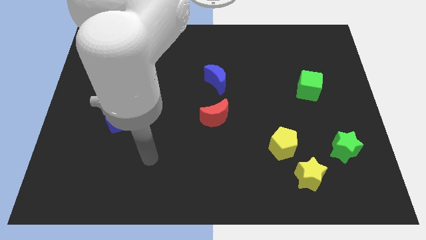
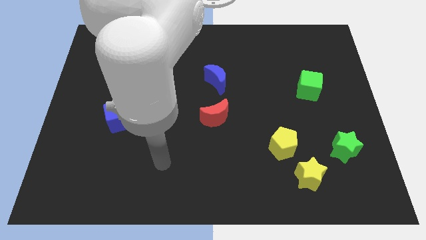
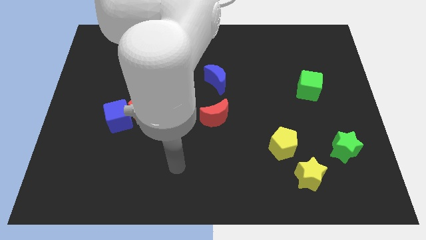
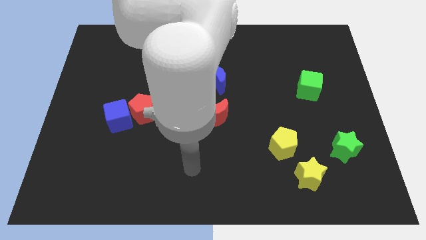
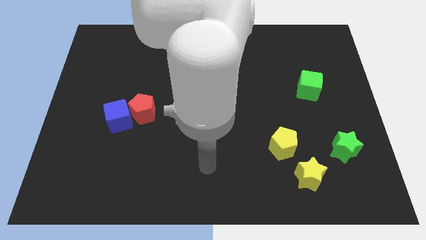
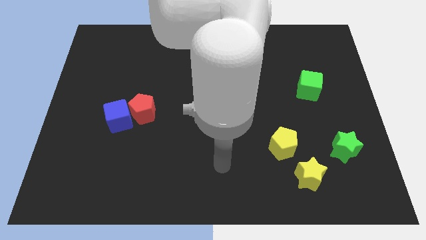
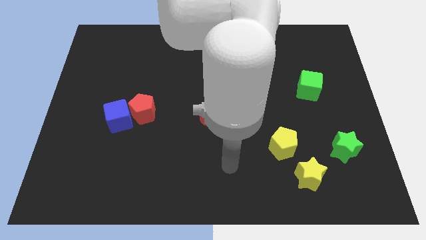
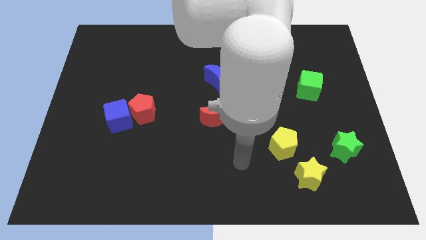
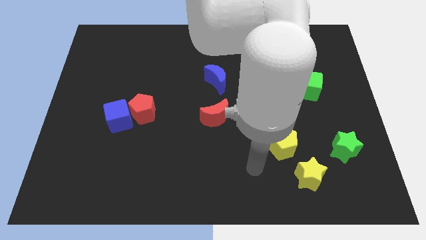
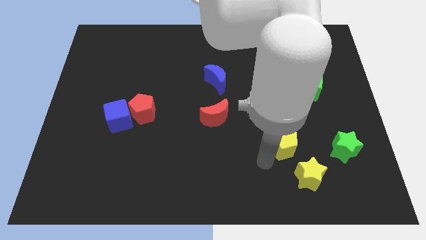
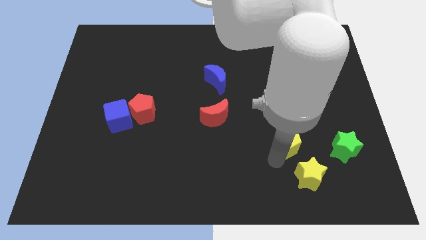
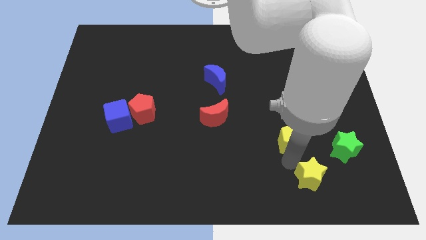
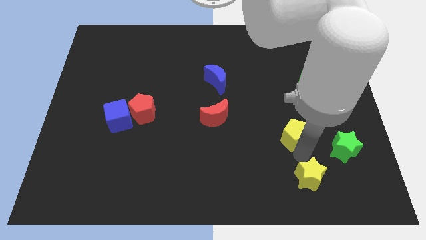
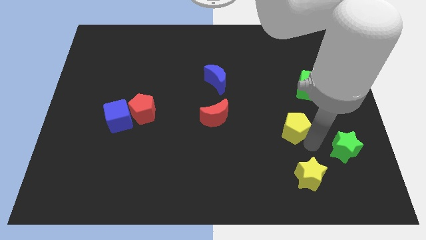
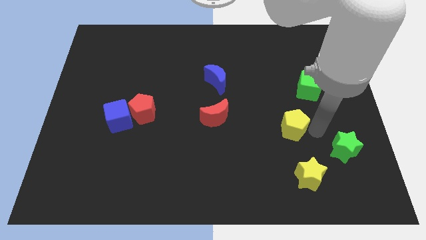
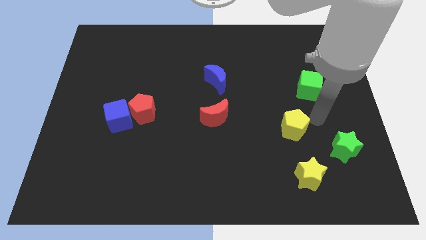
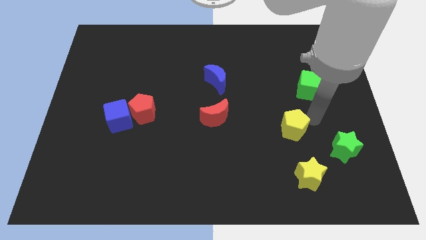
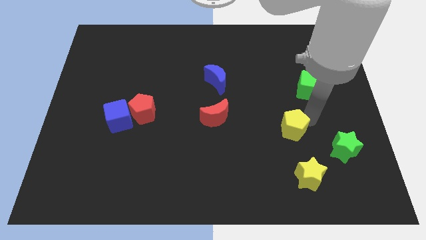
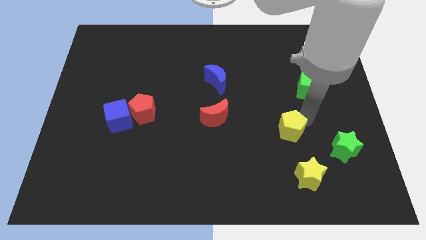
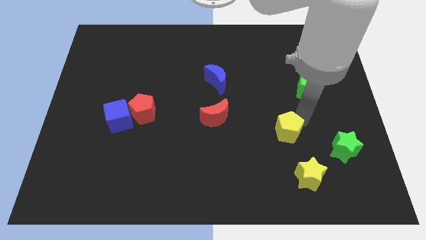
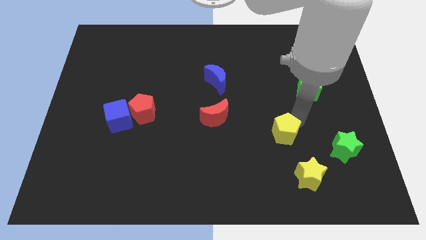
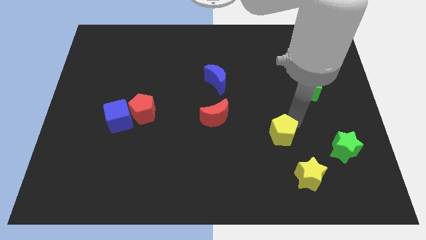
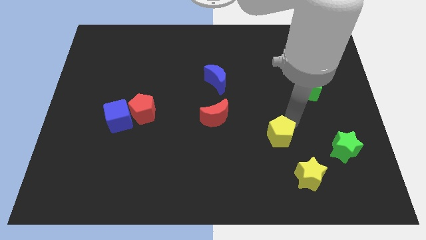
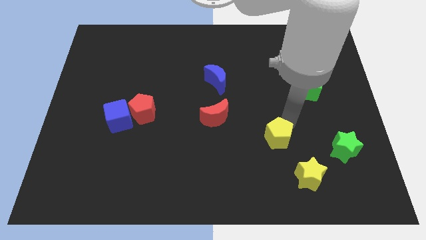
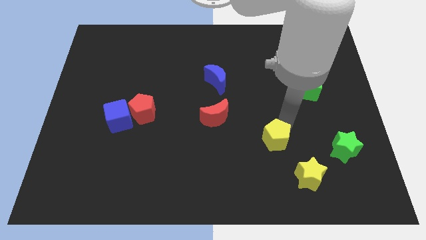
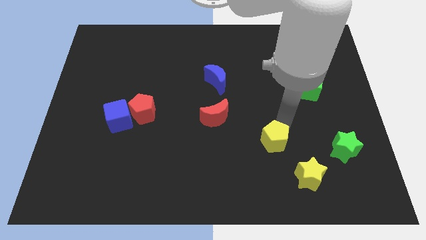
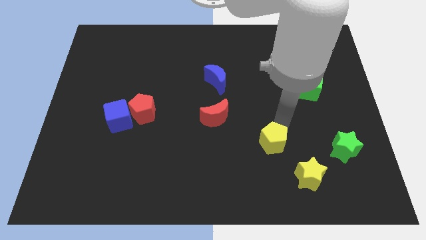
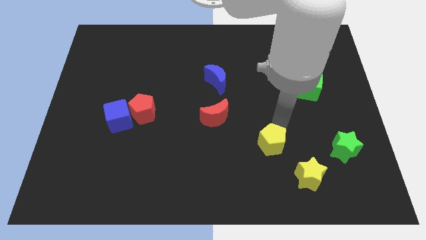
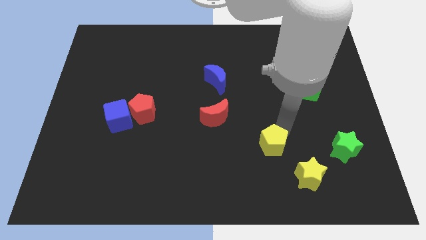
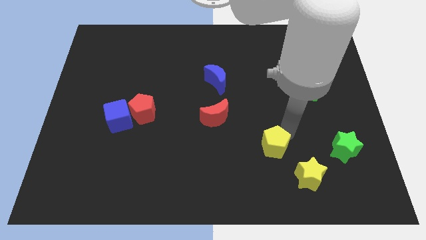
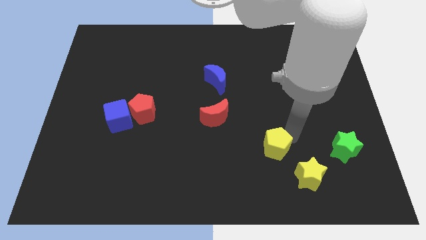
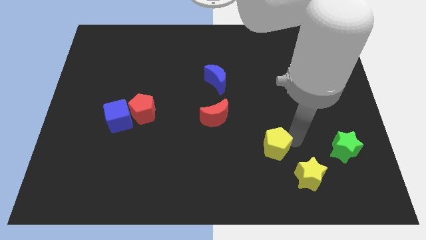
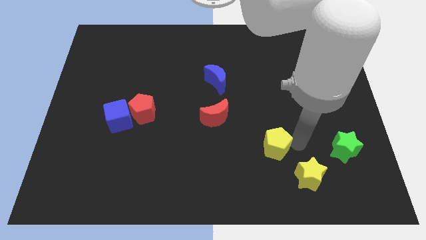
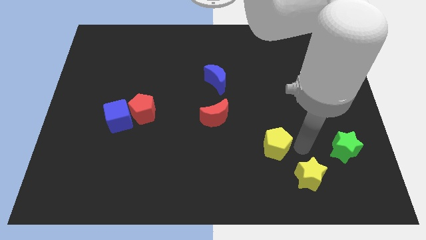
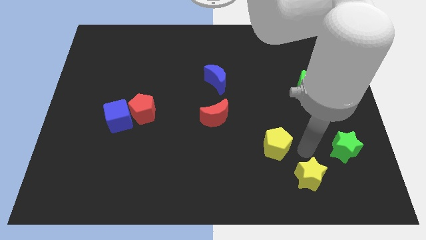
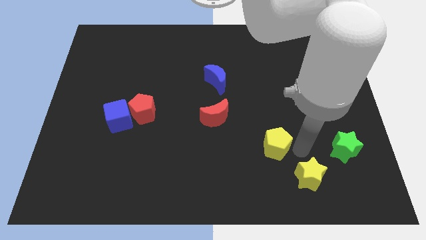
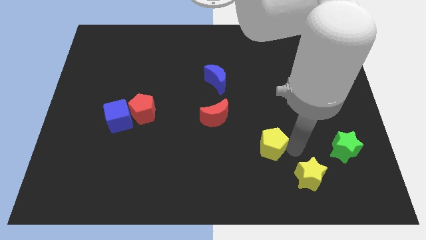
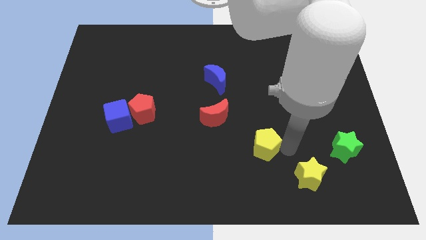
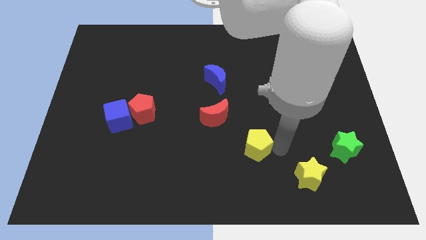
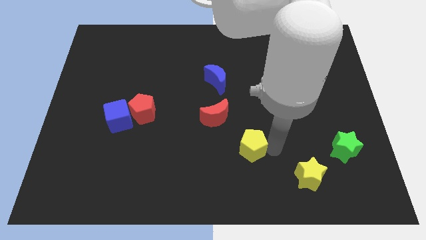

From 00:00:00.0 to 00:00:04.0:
slightly slide the yellow pentagon left

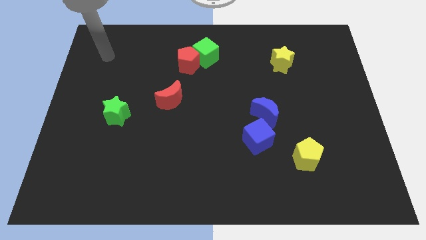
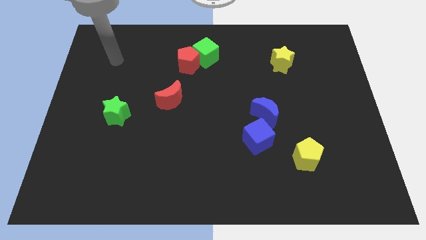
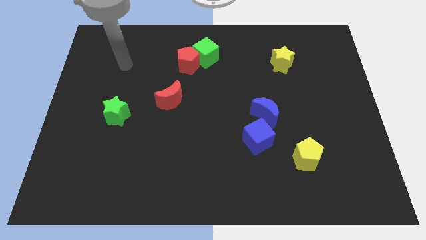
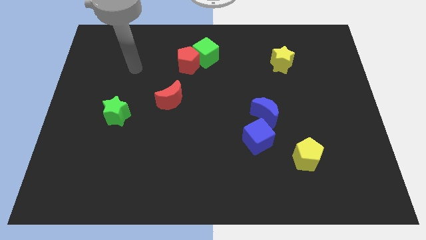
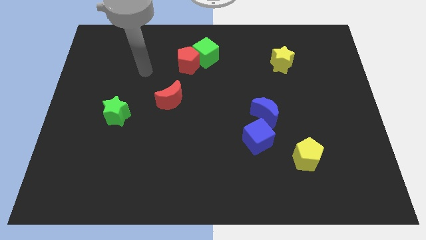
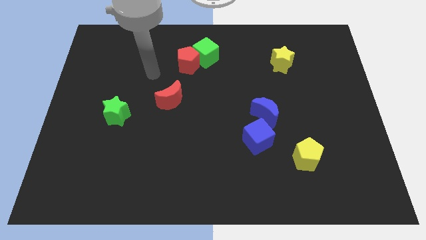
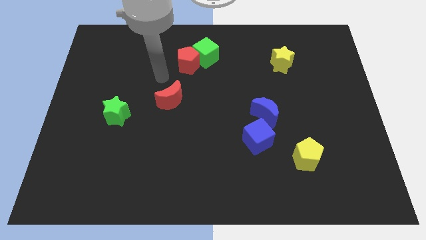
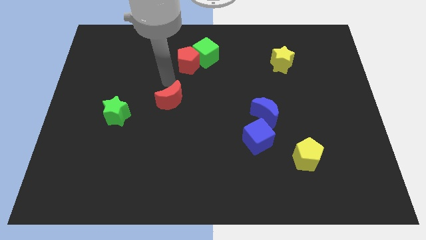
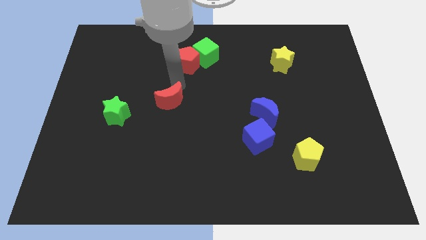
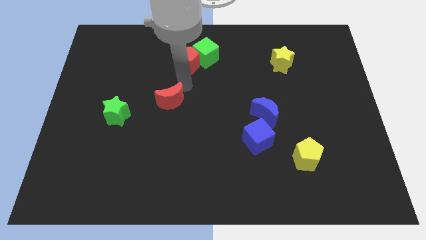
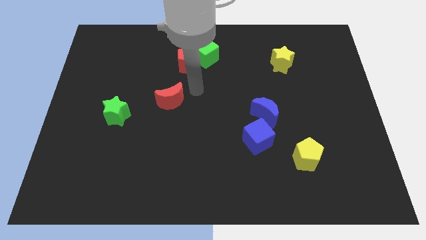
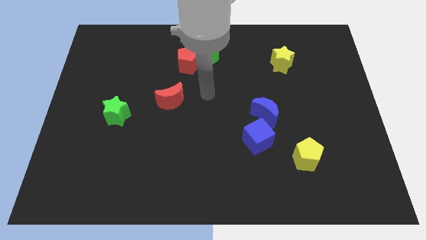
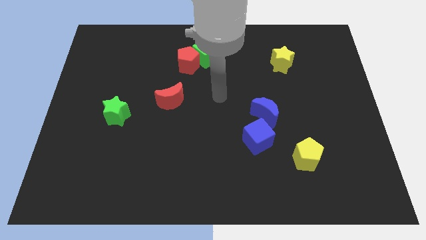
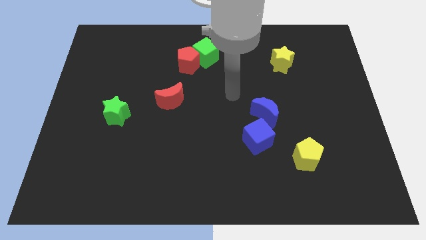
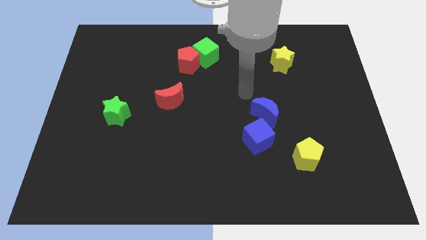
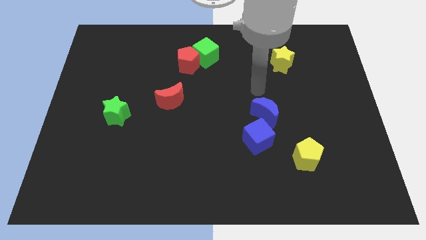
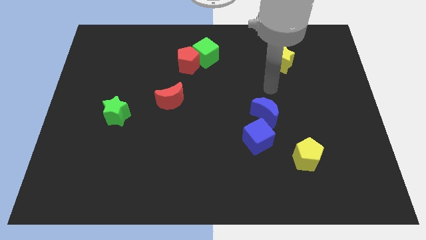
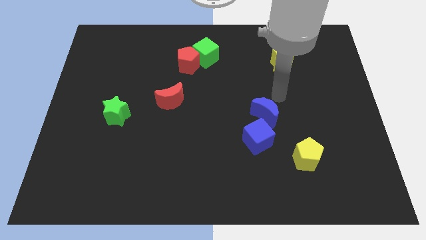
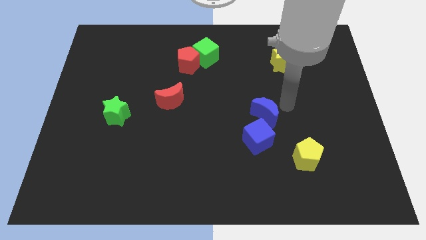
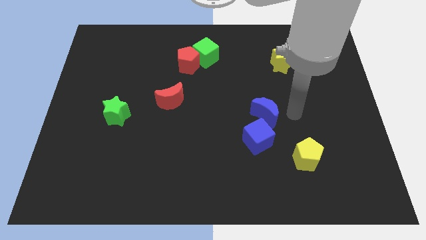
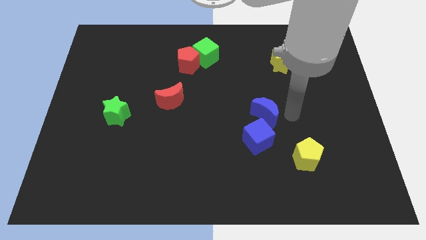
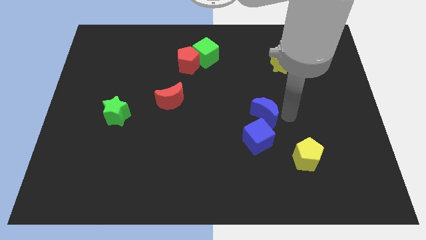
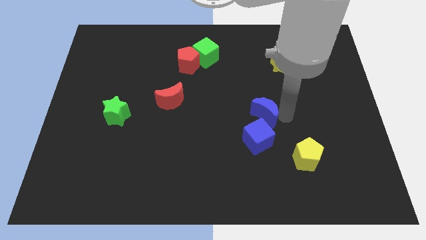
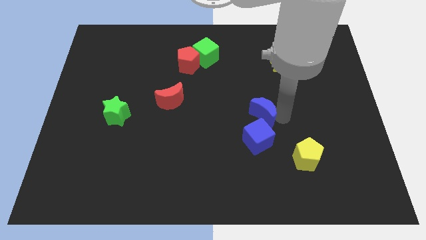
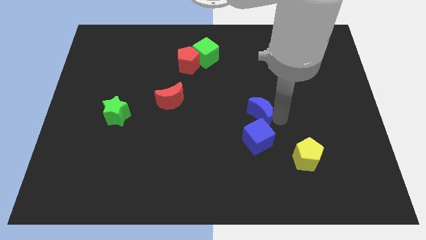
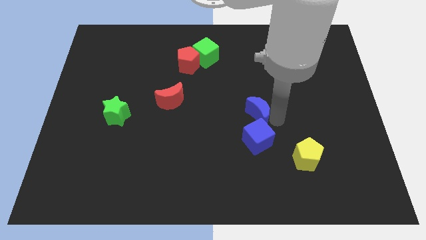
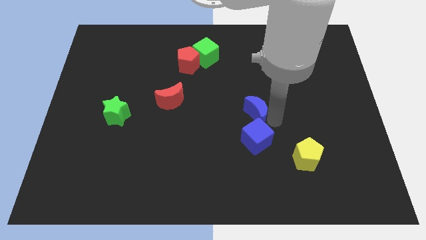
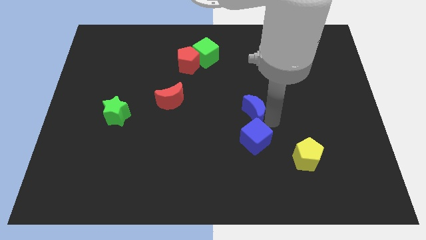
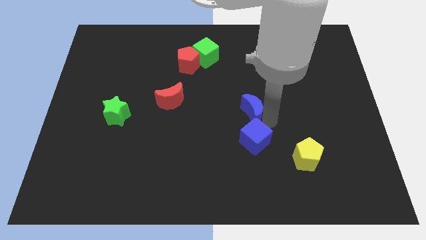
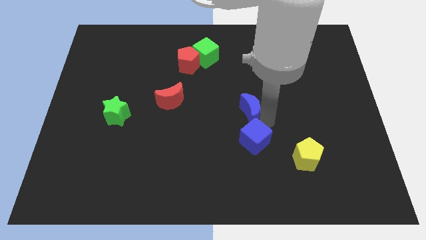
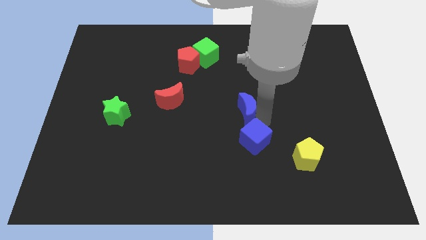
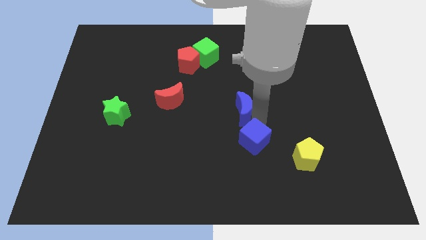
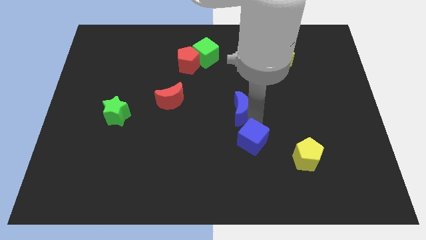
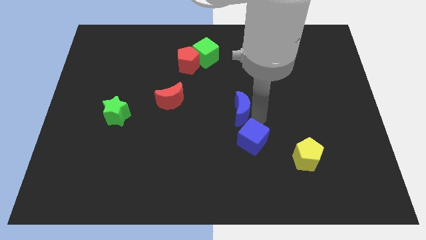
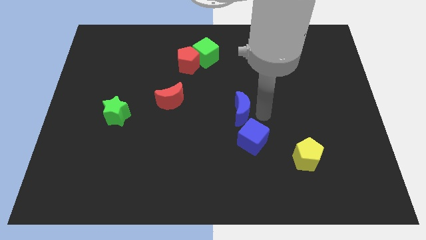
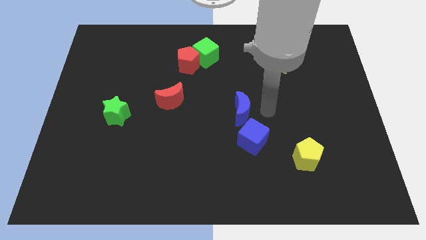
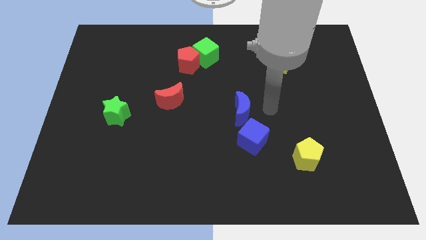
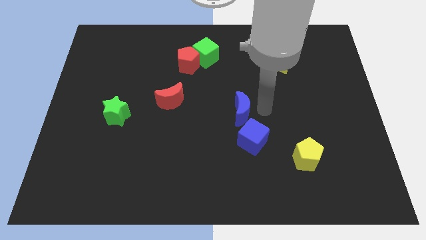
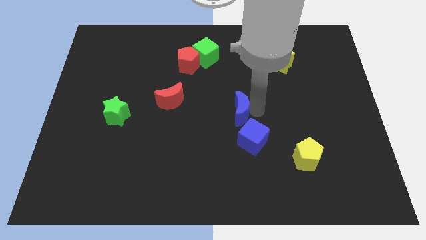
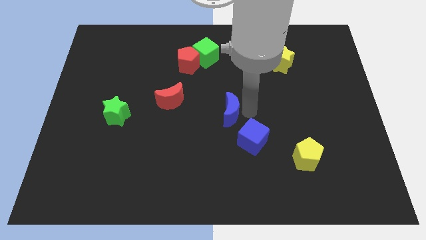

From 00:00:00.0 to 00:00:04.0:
slightly push the blue moon to the left

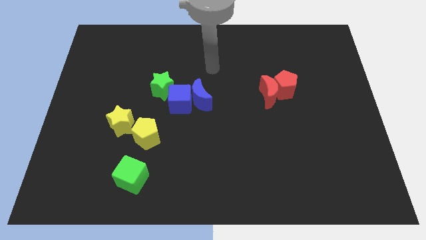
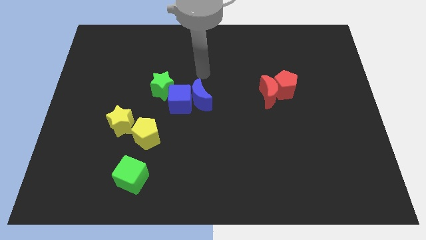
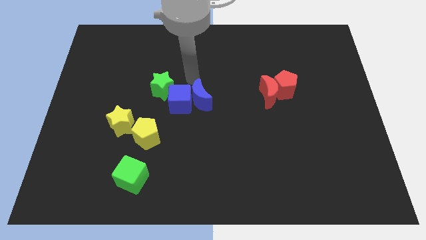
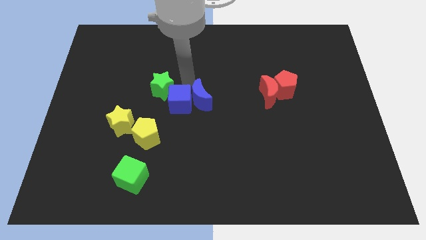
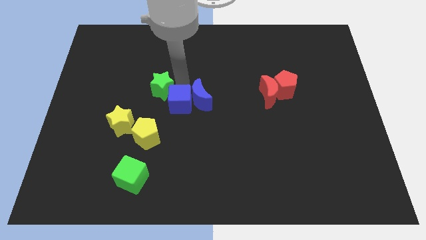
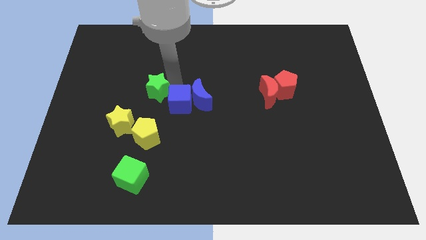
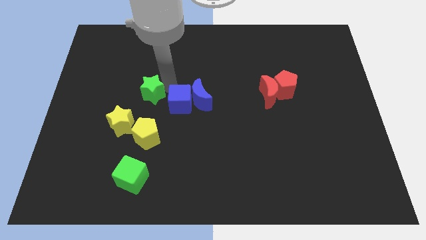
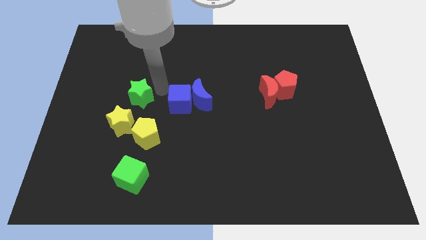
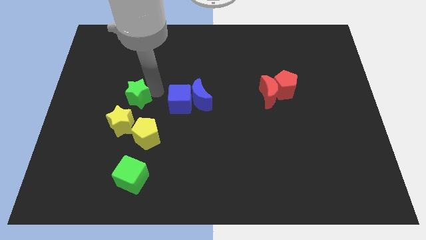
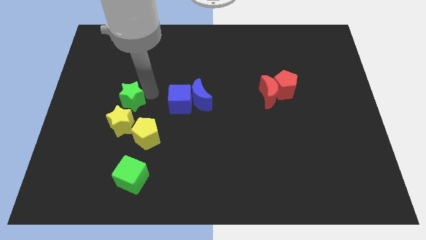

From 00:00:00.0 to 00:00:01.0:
slightly move the green star downwards and then to the left
